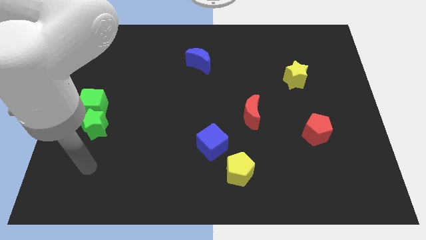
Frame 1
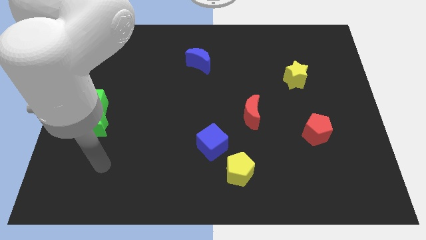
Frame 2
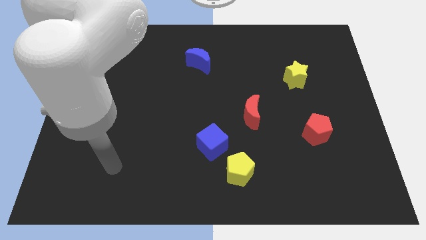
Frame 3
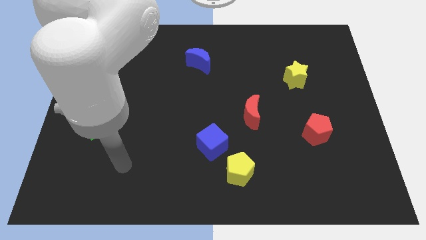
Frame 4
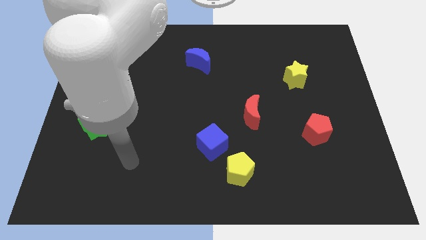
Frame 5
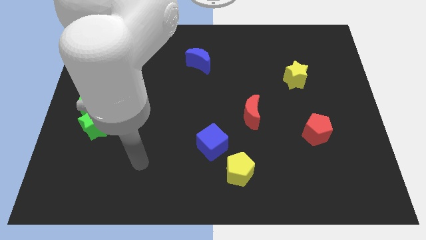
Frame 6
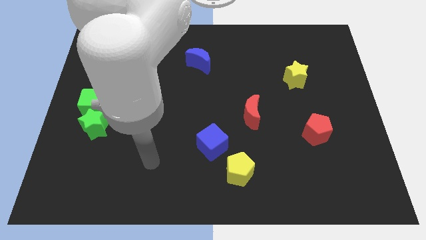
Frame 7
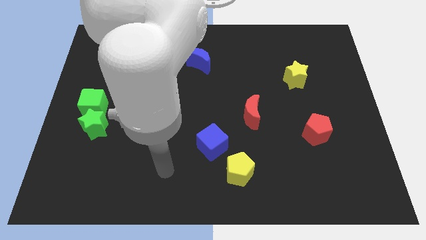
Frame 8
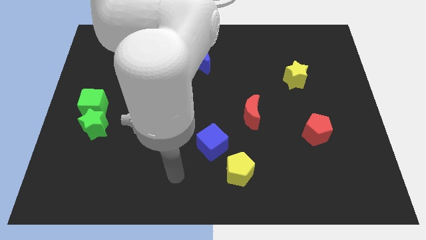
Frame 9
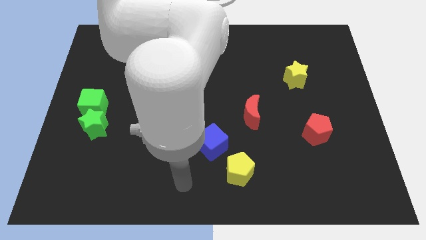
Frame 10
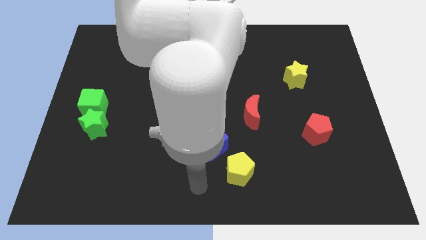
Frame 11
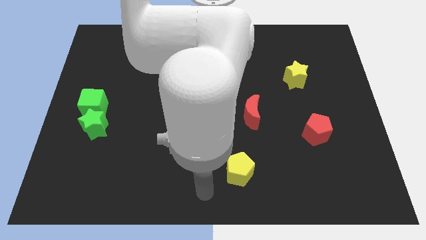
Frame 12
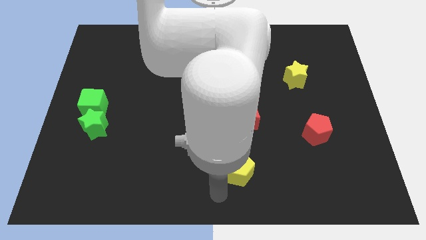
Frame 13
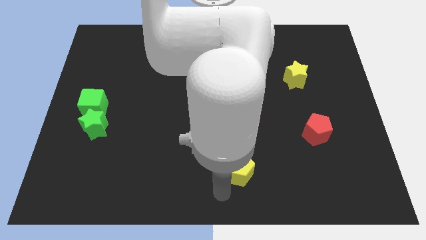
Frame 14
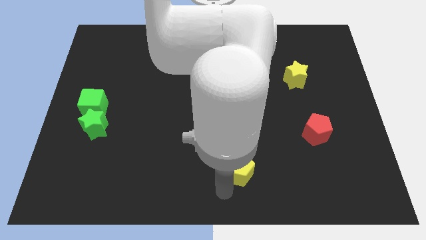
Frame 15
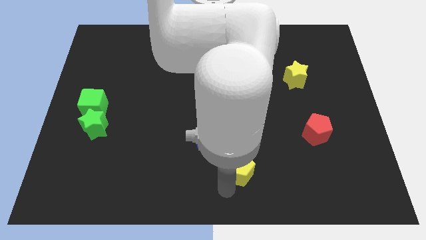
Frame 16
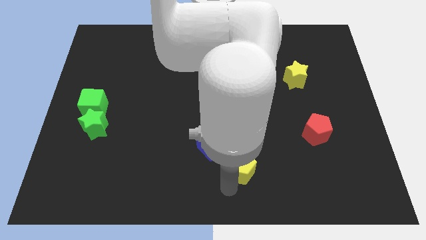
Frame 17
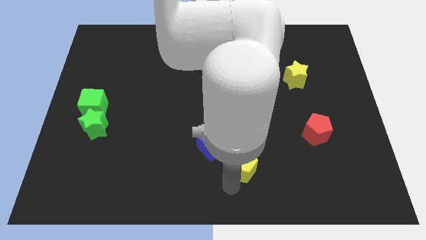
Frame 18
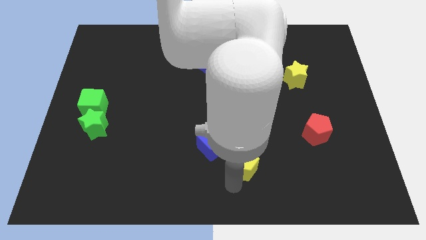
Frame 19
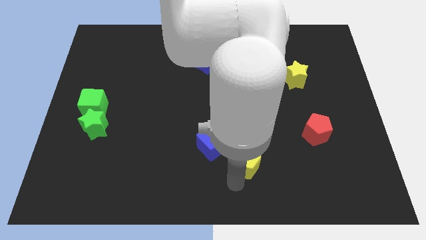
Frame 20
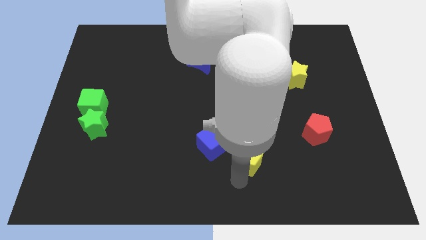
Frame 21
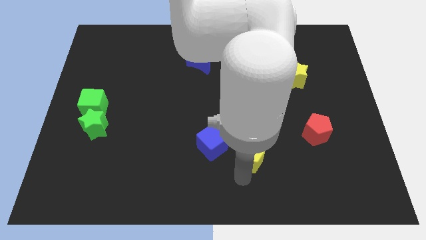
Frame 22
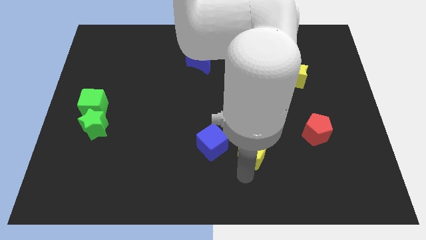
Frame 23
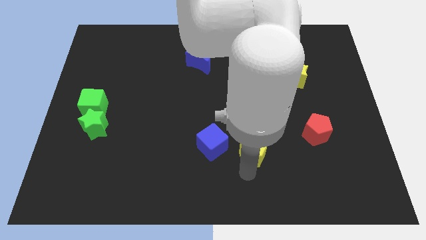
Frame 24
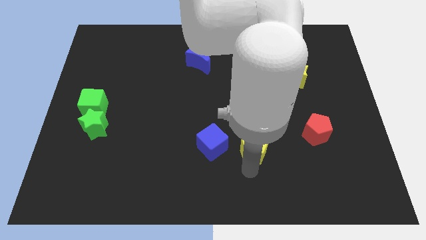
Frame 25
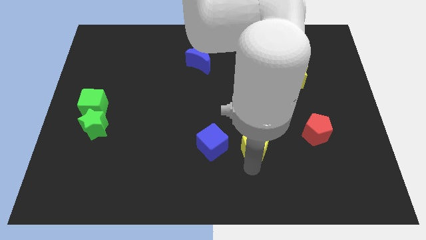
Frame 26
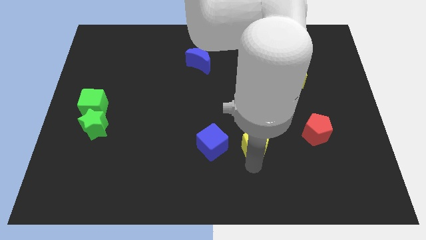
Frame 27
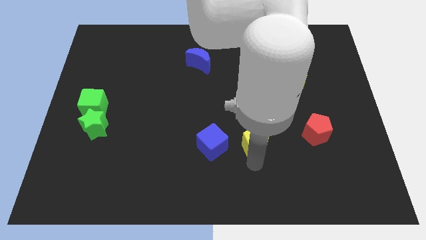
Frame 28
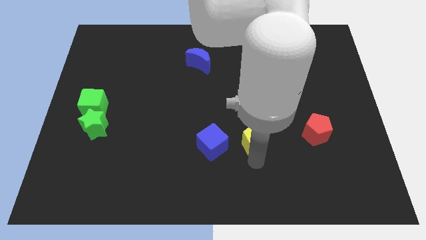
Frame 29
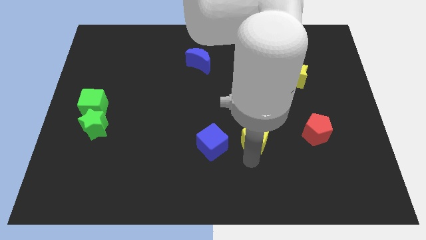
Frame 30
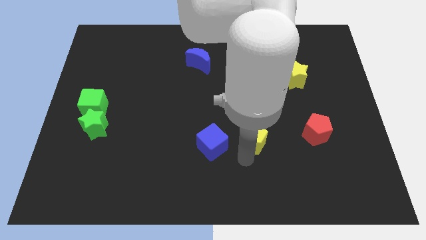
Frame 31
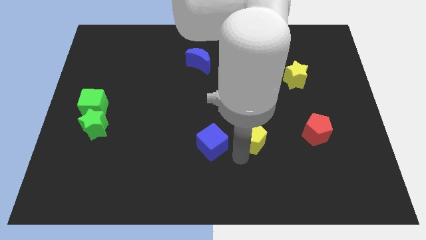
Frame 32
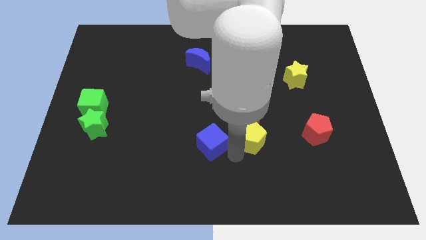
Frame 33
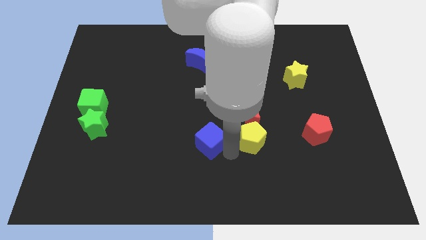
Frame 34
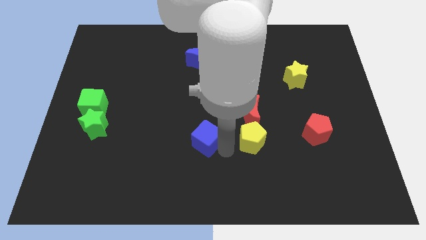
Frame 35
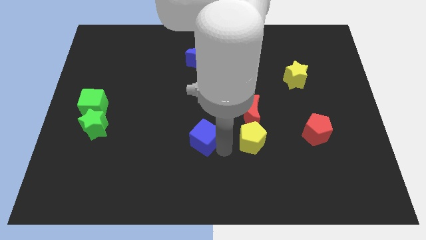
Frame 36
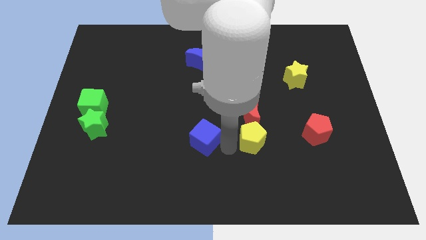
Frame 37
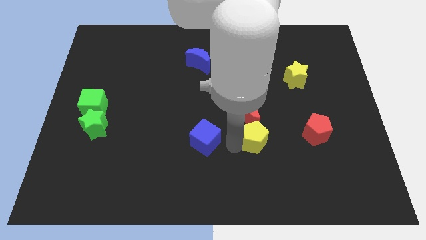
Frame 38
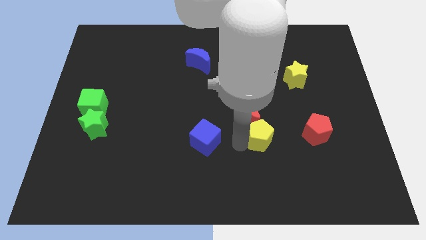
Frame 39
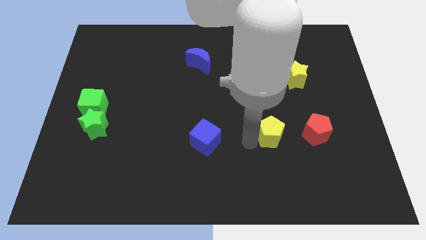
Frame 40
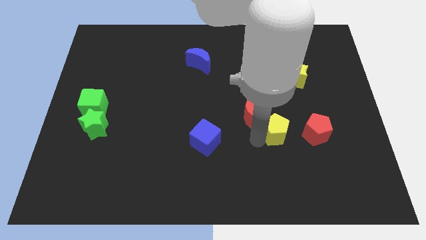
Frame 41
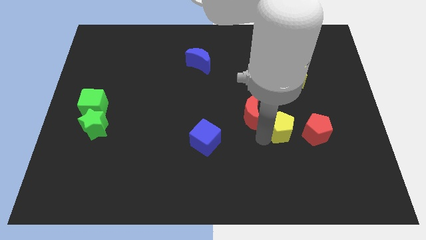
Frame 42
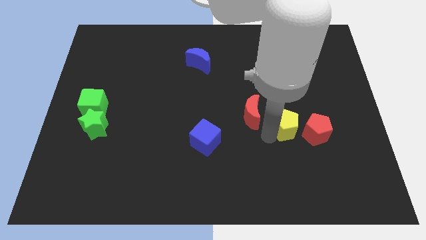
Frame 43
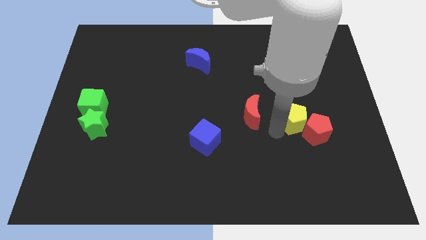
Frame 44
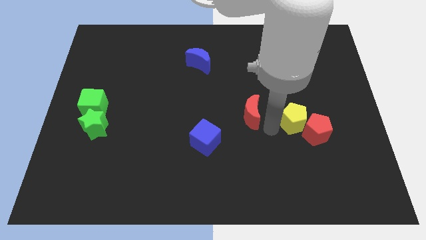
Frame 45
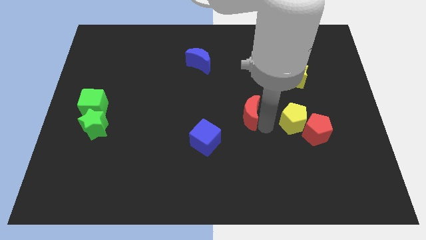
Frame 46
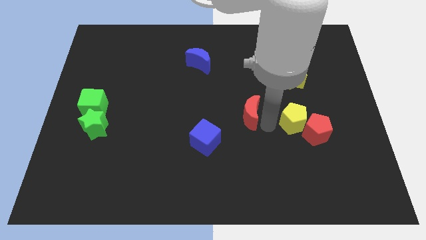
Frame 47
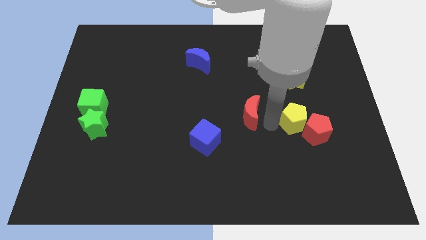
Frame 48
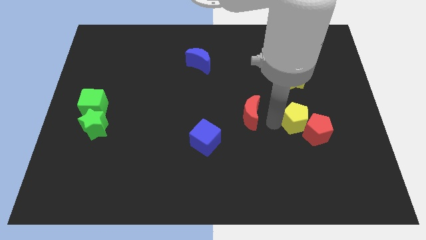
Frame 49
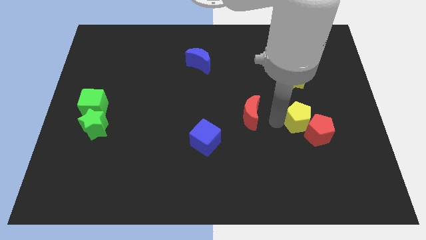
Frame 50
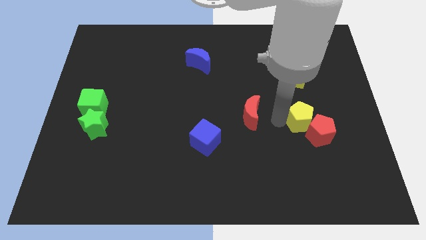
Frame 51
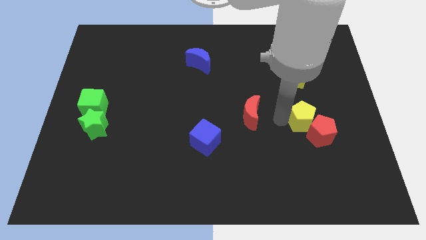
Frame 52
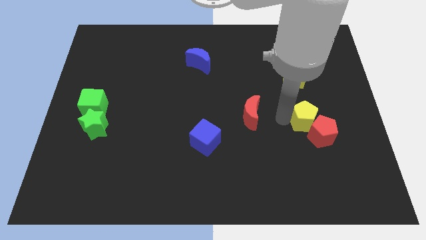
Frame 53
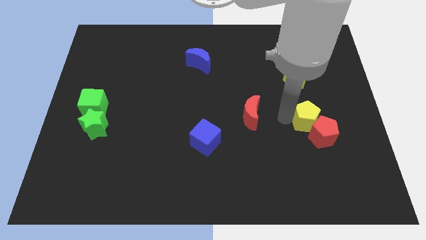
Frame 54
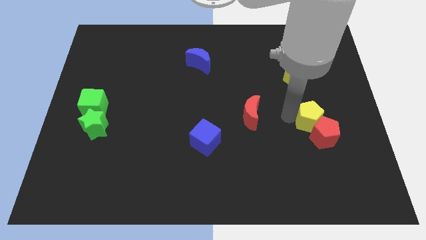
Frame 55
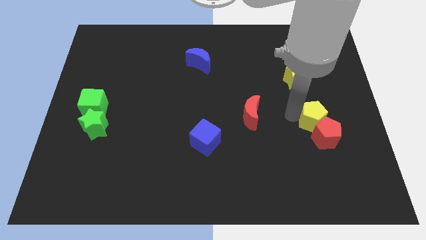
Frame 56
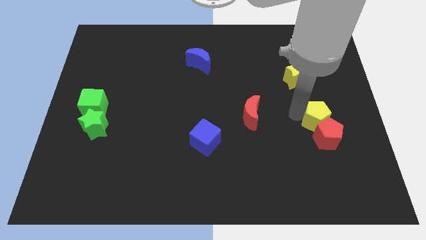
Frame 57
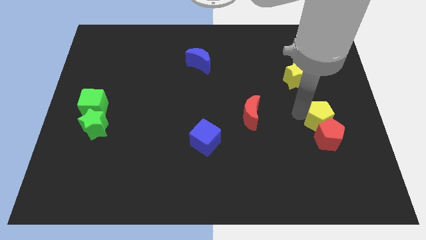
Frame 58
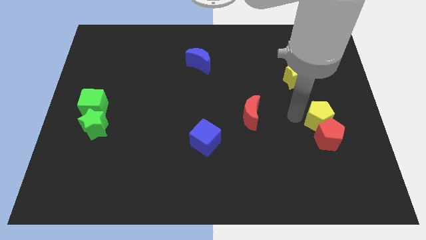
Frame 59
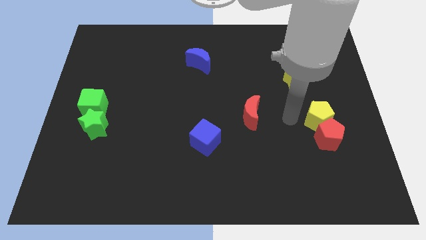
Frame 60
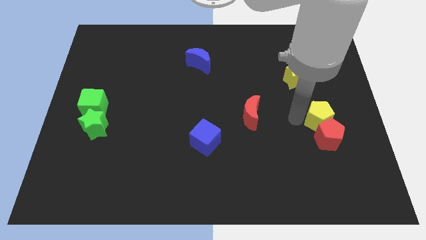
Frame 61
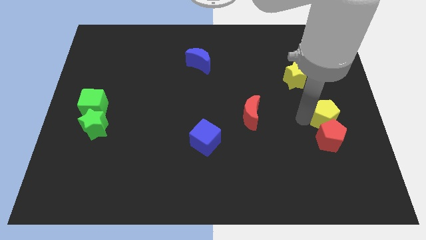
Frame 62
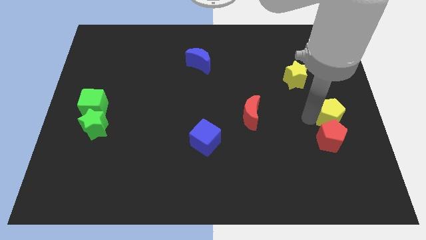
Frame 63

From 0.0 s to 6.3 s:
put the yellow pentagon to the center right
